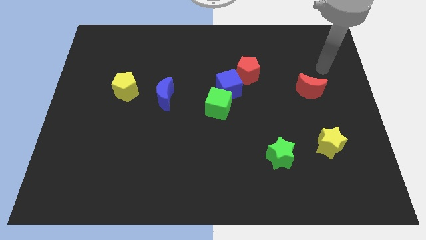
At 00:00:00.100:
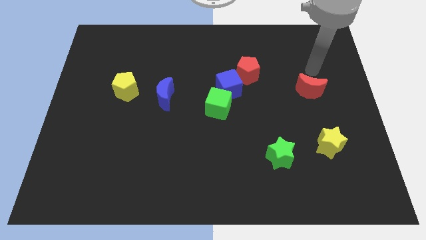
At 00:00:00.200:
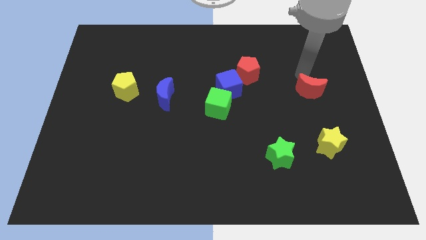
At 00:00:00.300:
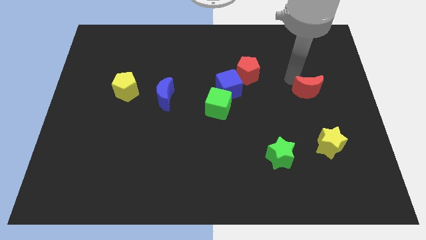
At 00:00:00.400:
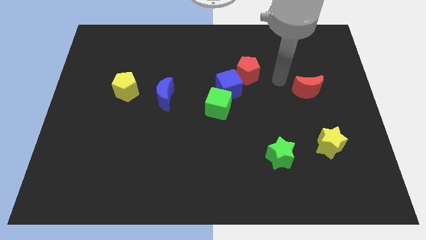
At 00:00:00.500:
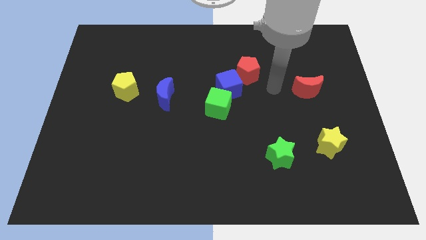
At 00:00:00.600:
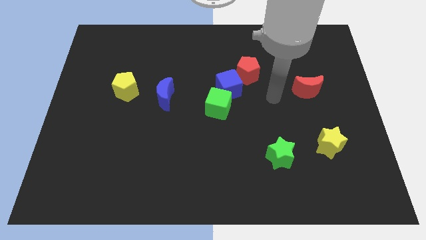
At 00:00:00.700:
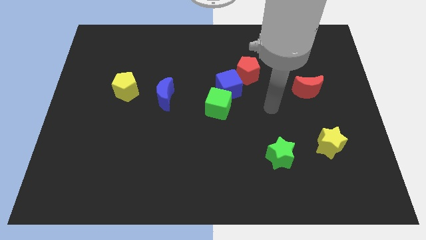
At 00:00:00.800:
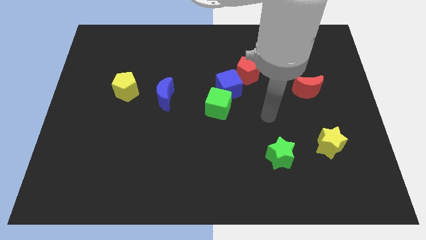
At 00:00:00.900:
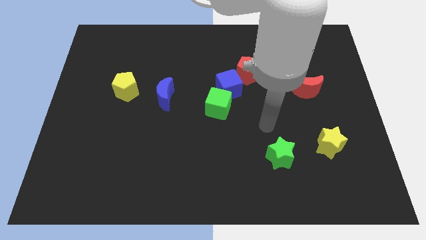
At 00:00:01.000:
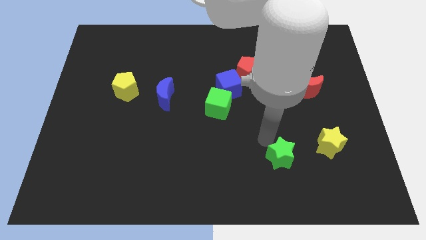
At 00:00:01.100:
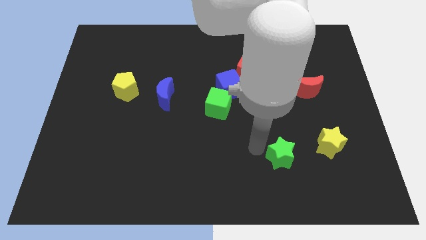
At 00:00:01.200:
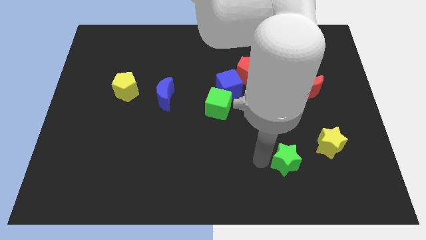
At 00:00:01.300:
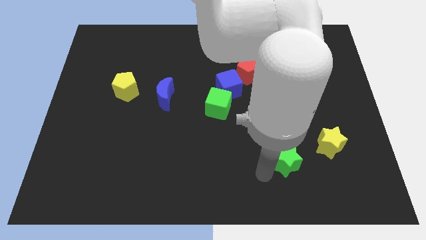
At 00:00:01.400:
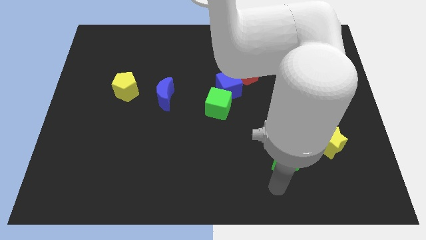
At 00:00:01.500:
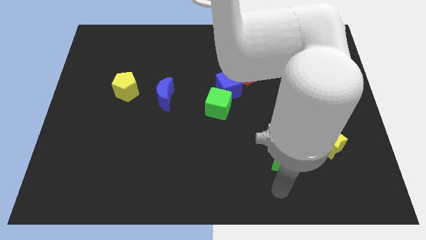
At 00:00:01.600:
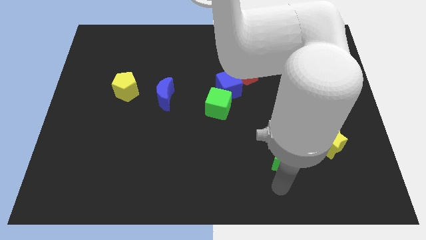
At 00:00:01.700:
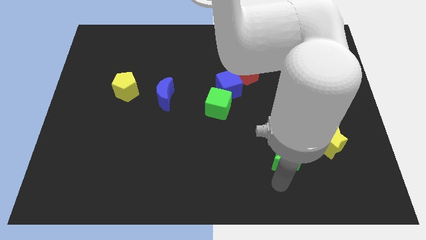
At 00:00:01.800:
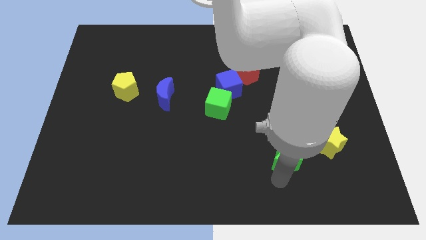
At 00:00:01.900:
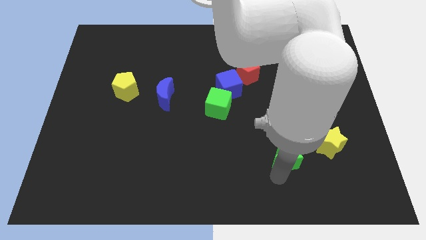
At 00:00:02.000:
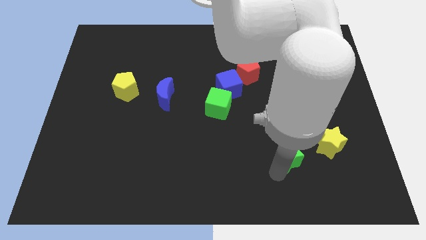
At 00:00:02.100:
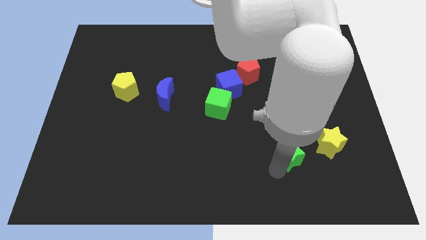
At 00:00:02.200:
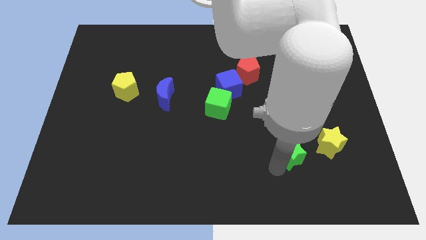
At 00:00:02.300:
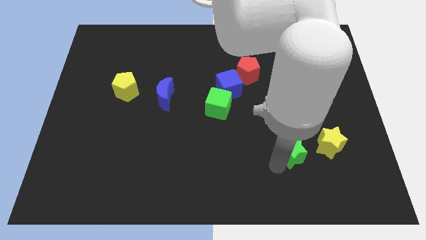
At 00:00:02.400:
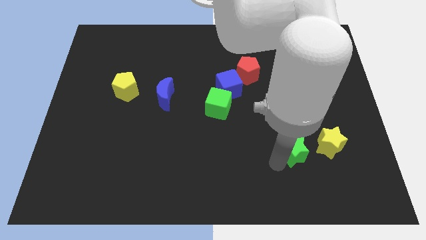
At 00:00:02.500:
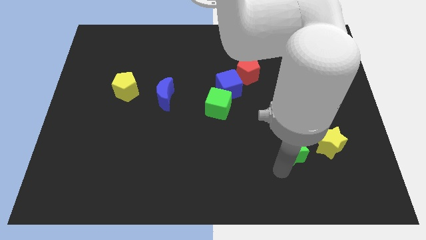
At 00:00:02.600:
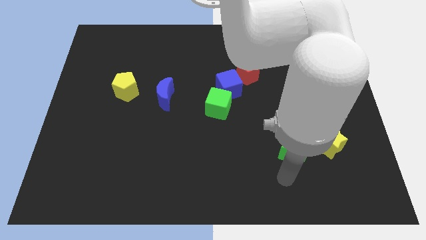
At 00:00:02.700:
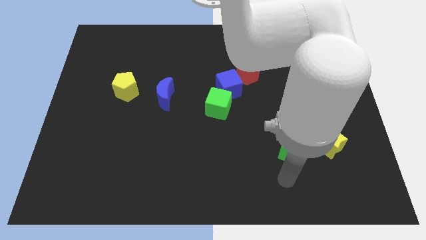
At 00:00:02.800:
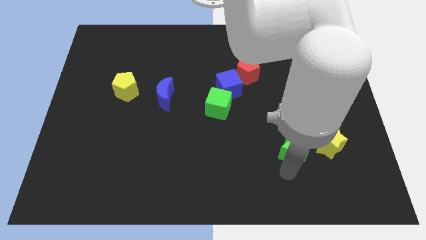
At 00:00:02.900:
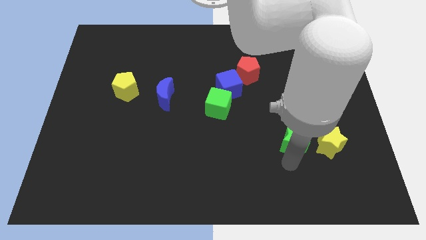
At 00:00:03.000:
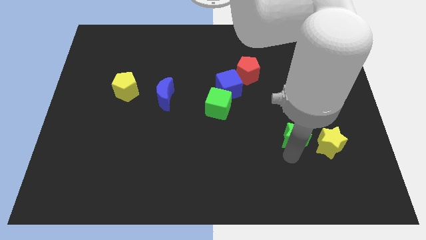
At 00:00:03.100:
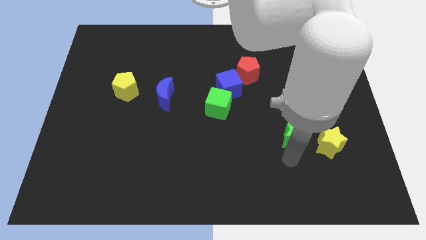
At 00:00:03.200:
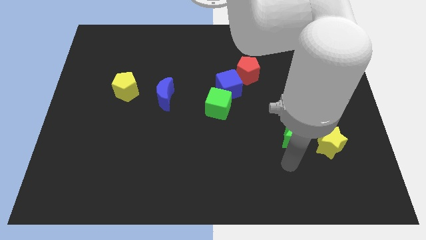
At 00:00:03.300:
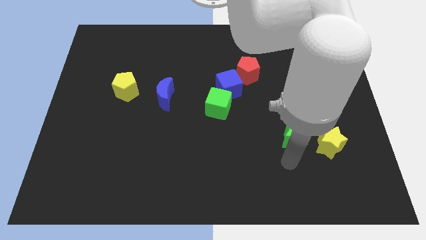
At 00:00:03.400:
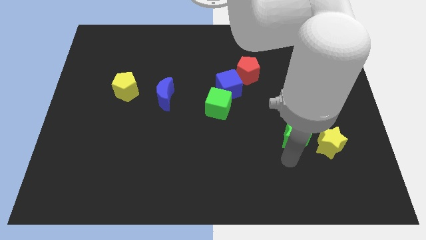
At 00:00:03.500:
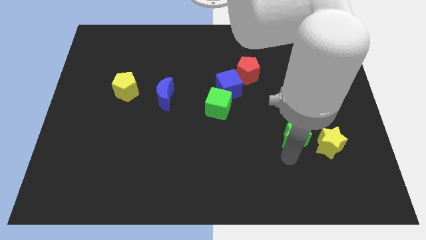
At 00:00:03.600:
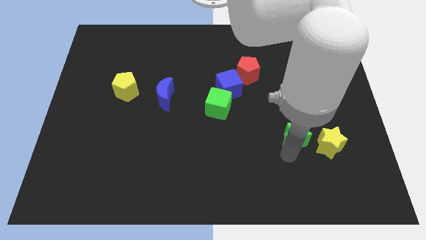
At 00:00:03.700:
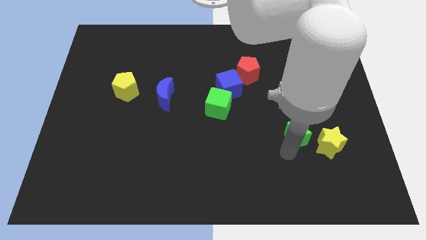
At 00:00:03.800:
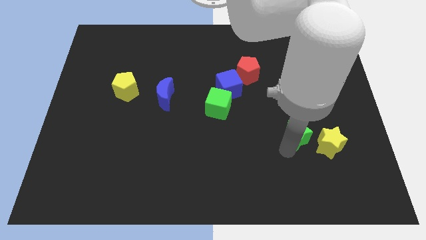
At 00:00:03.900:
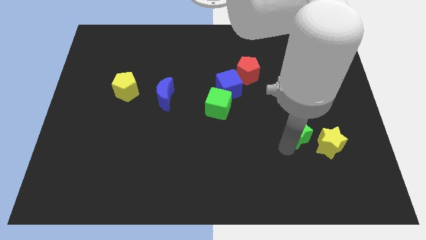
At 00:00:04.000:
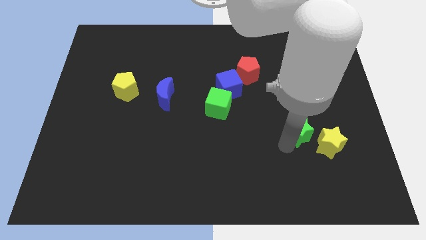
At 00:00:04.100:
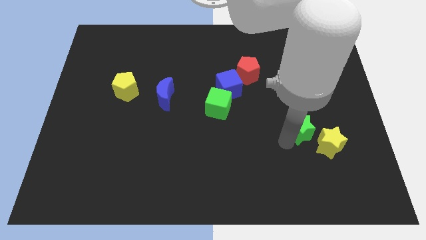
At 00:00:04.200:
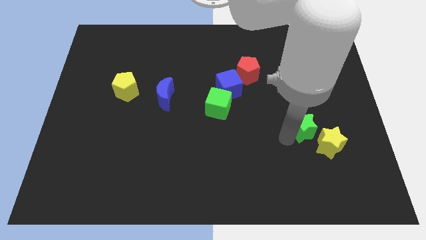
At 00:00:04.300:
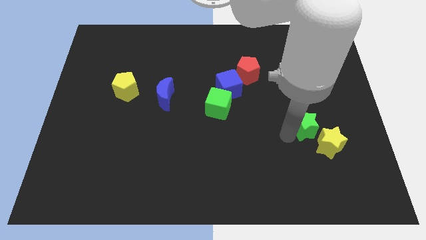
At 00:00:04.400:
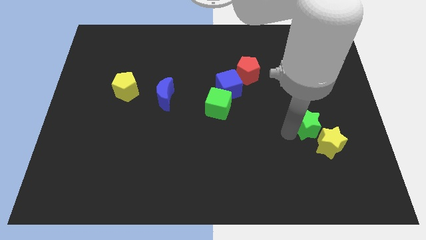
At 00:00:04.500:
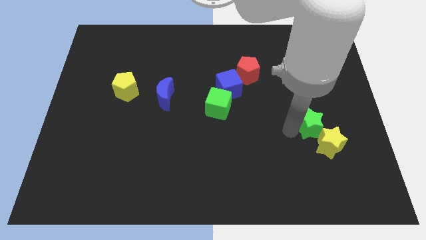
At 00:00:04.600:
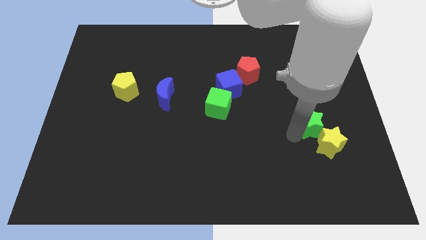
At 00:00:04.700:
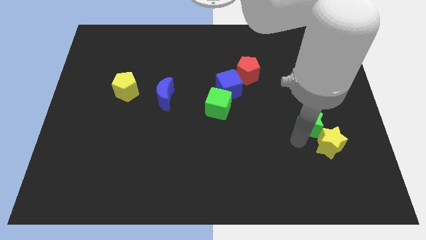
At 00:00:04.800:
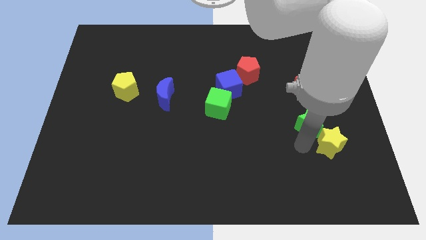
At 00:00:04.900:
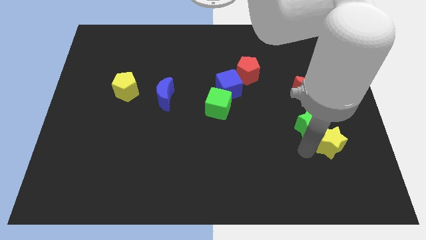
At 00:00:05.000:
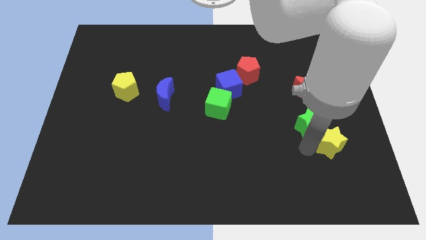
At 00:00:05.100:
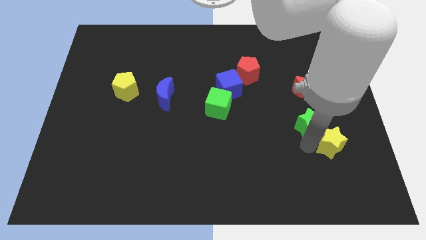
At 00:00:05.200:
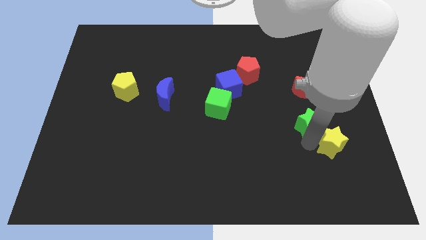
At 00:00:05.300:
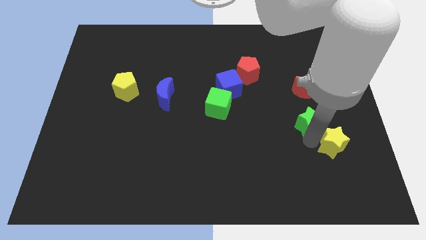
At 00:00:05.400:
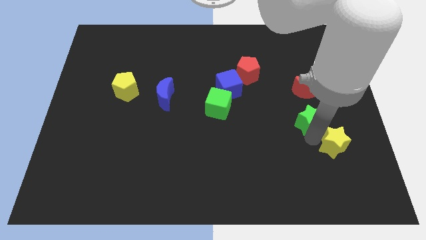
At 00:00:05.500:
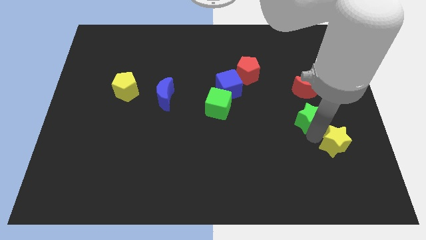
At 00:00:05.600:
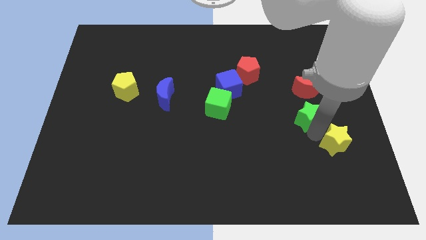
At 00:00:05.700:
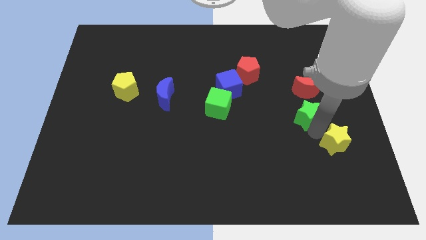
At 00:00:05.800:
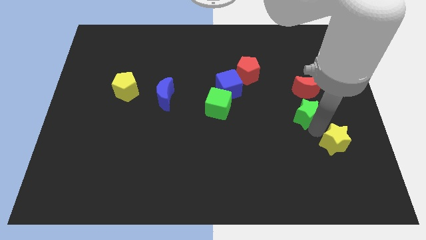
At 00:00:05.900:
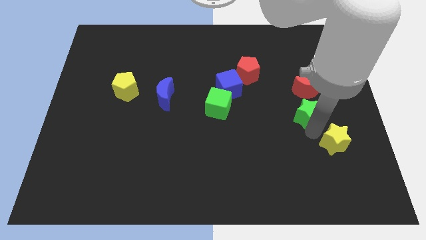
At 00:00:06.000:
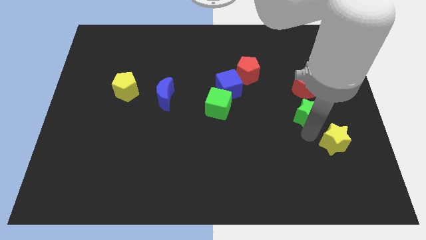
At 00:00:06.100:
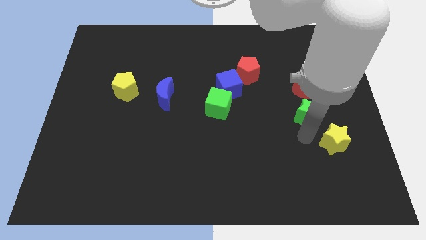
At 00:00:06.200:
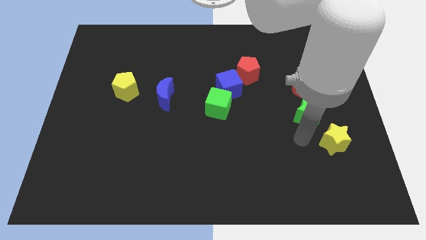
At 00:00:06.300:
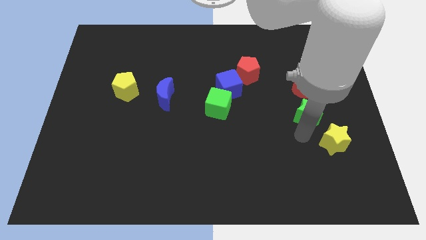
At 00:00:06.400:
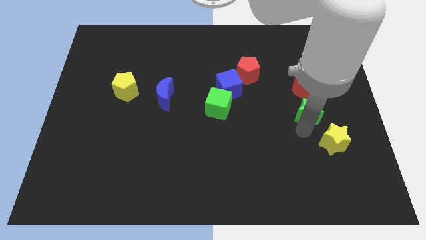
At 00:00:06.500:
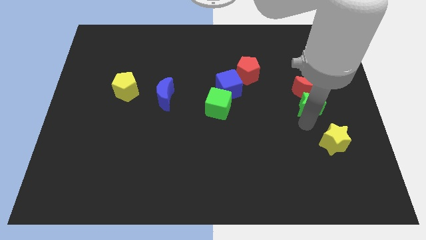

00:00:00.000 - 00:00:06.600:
move the green star close to the red moon
